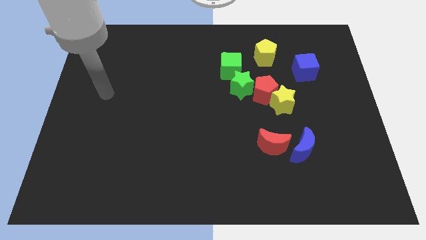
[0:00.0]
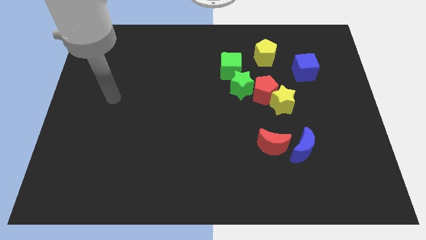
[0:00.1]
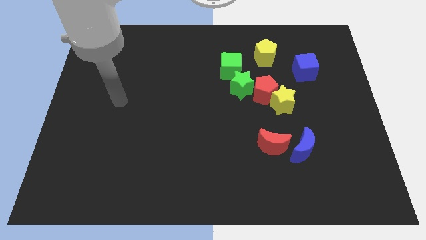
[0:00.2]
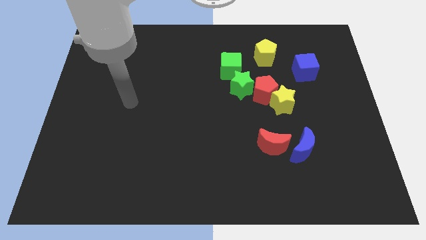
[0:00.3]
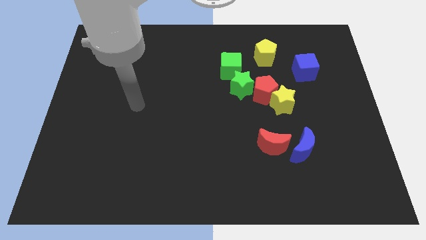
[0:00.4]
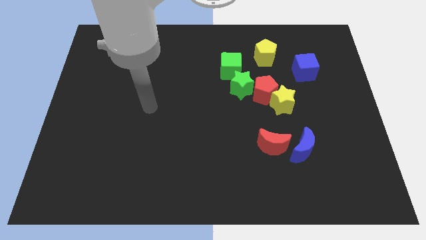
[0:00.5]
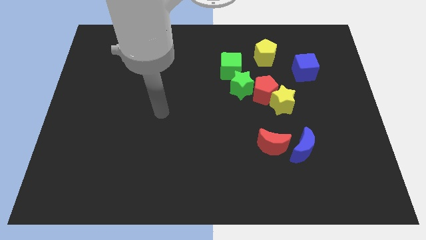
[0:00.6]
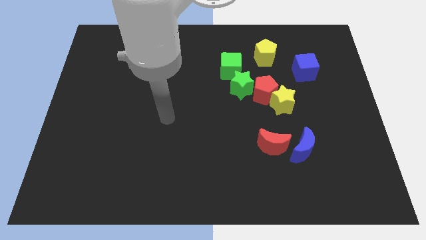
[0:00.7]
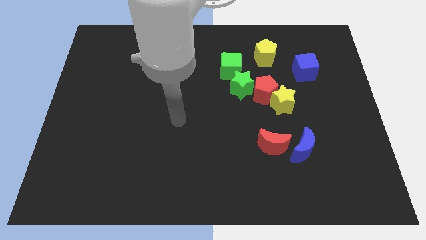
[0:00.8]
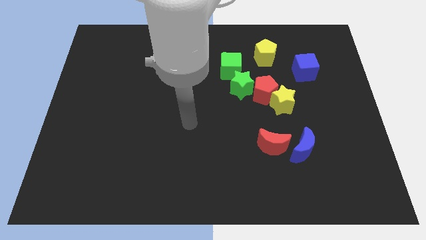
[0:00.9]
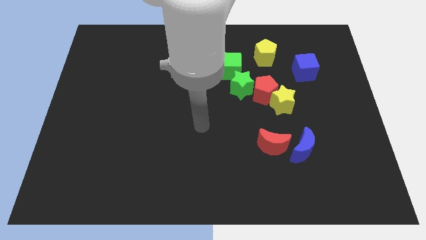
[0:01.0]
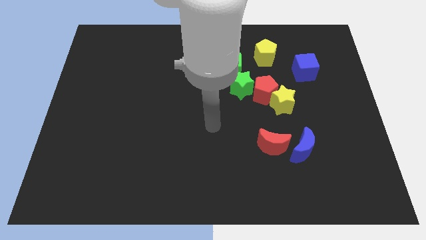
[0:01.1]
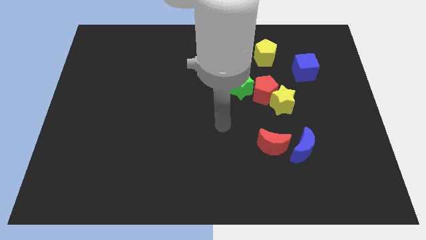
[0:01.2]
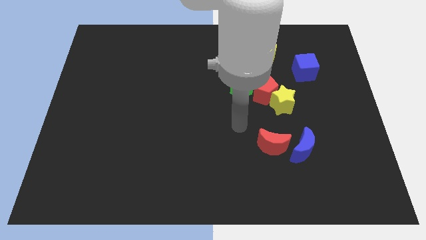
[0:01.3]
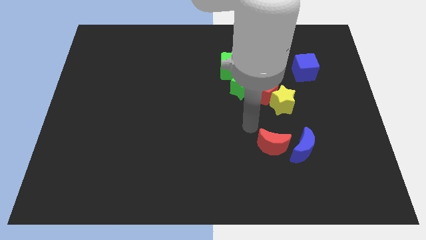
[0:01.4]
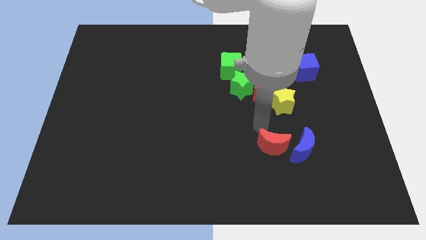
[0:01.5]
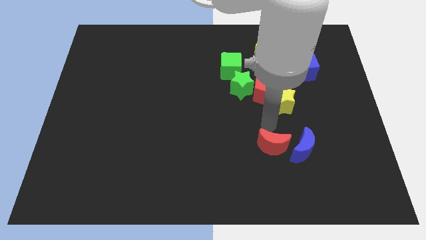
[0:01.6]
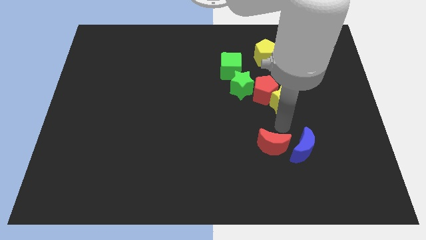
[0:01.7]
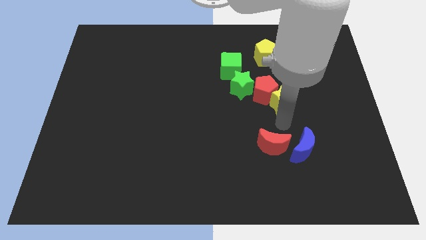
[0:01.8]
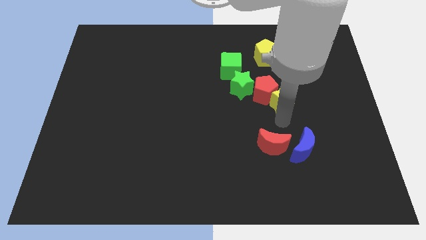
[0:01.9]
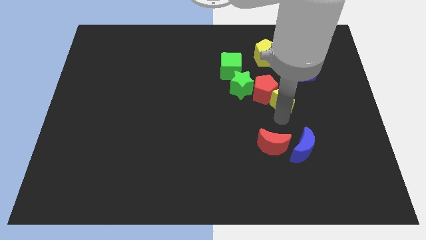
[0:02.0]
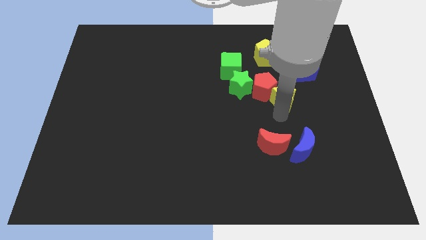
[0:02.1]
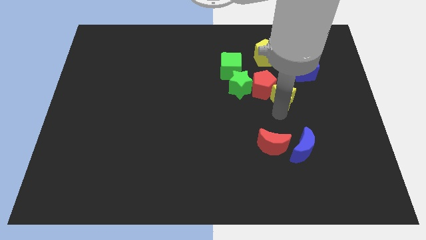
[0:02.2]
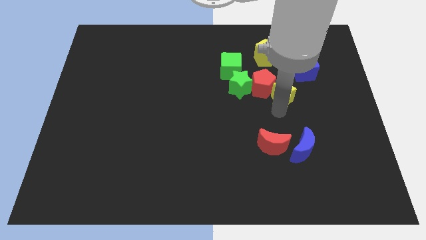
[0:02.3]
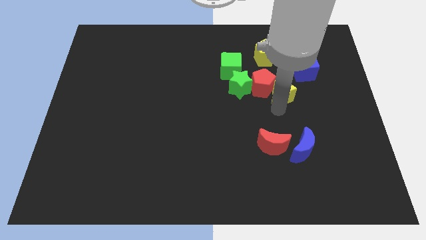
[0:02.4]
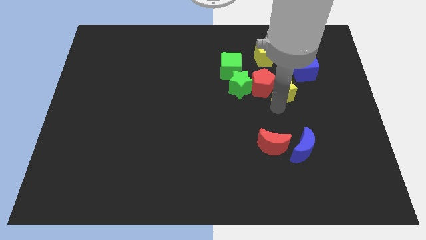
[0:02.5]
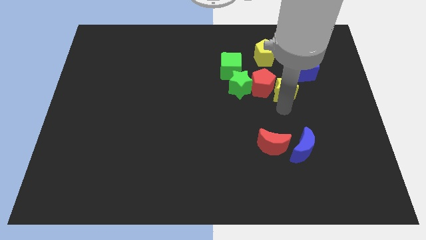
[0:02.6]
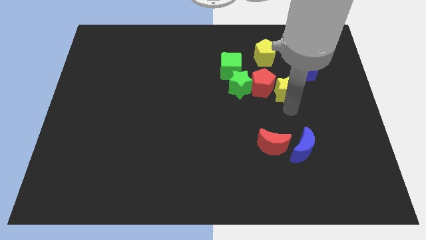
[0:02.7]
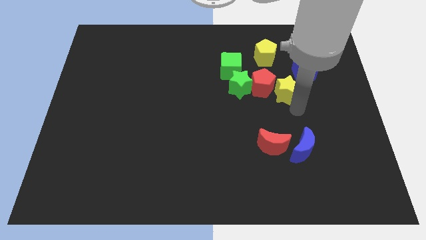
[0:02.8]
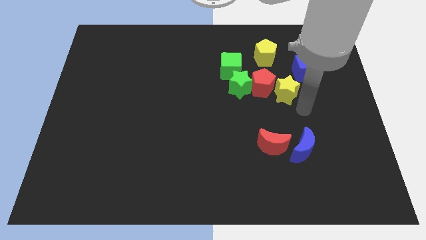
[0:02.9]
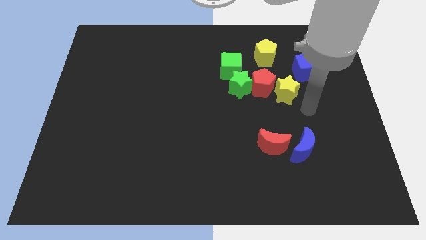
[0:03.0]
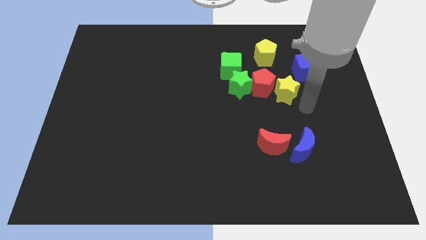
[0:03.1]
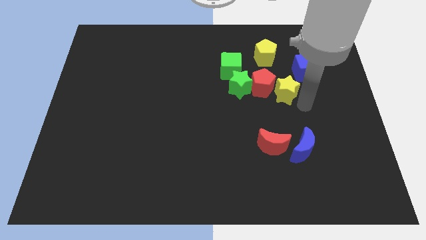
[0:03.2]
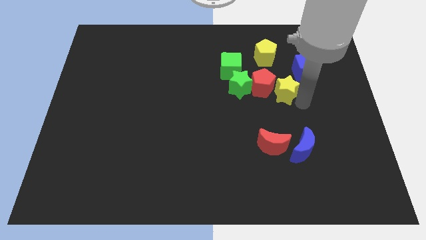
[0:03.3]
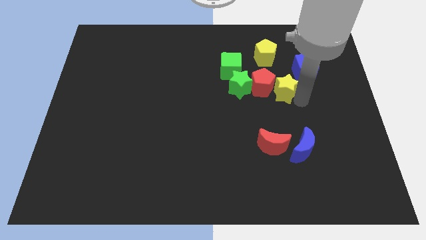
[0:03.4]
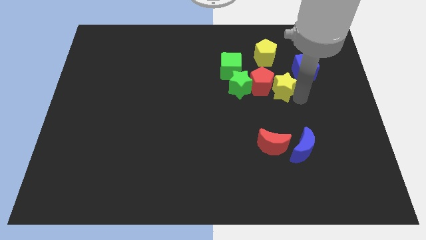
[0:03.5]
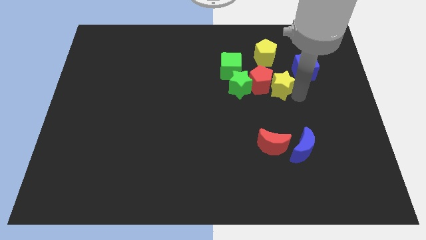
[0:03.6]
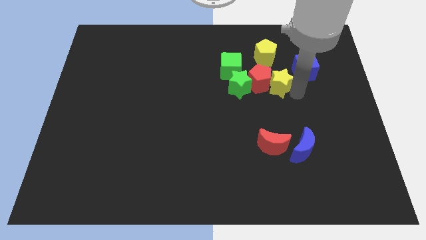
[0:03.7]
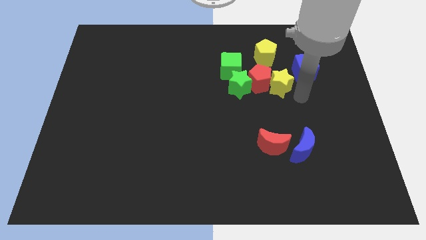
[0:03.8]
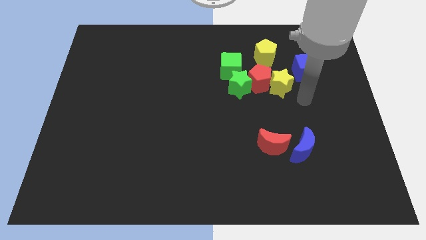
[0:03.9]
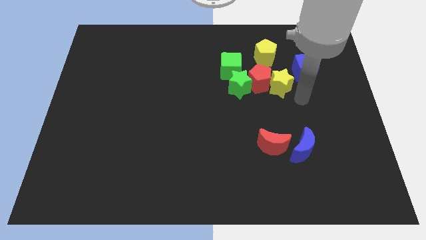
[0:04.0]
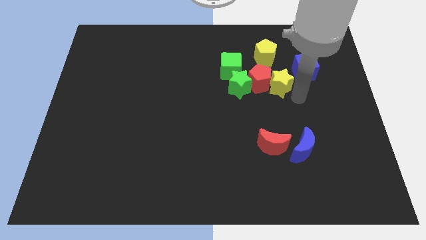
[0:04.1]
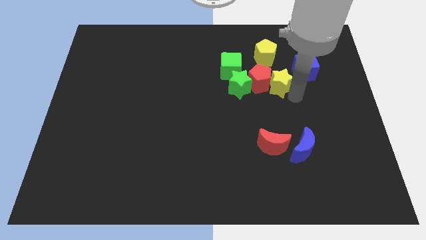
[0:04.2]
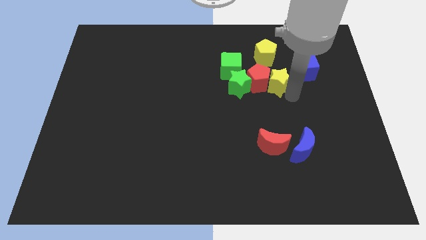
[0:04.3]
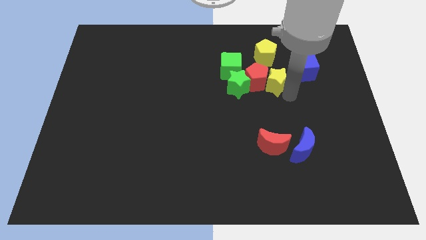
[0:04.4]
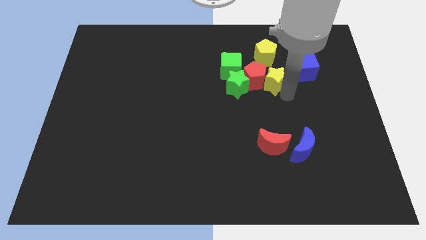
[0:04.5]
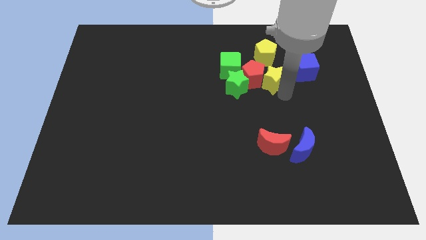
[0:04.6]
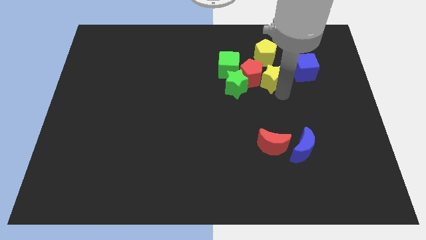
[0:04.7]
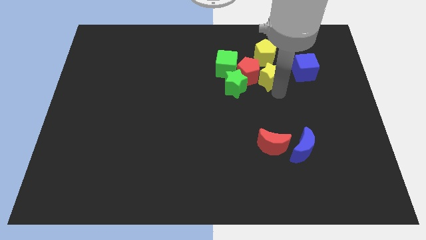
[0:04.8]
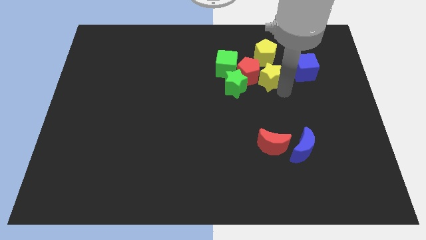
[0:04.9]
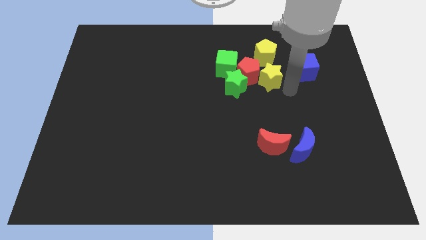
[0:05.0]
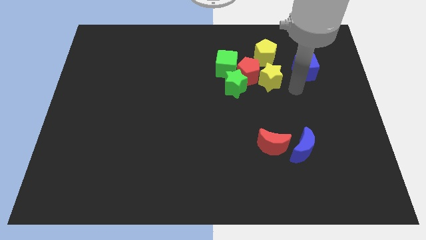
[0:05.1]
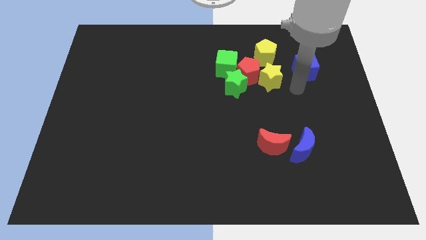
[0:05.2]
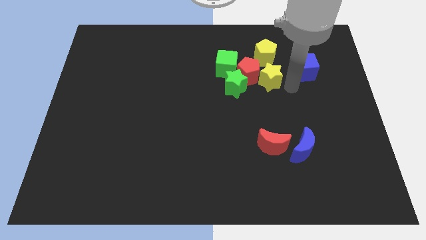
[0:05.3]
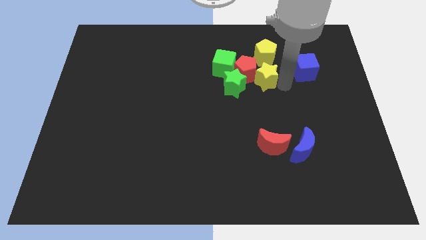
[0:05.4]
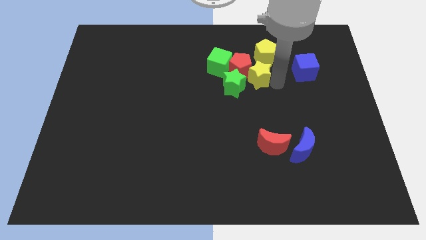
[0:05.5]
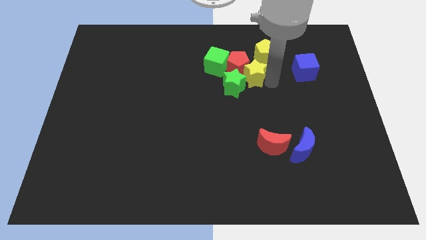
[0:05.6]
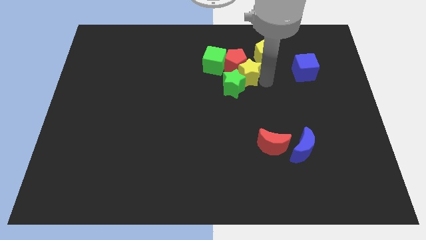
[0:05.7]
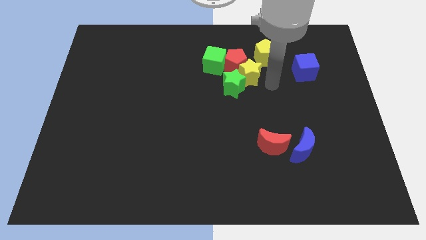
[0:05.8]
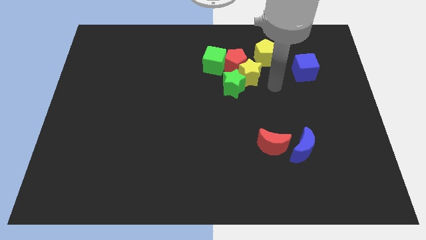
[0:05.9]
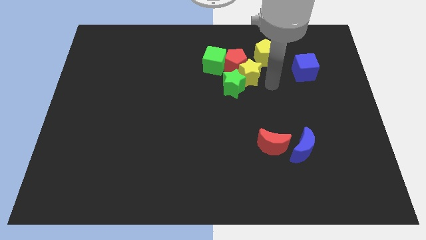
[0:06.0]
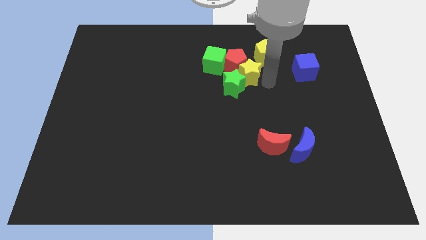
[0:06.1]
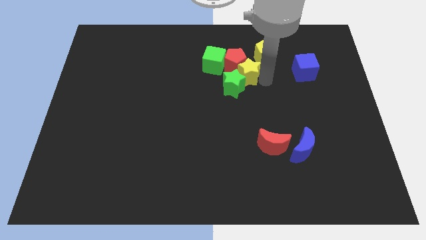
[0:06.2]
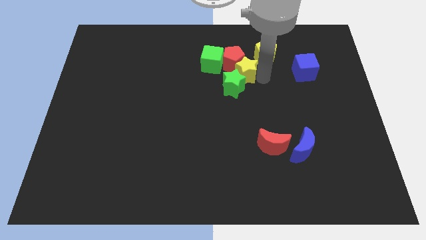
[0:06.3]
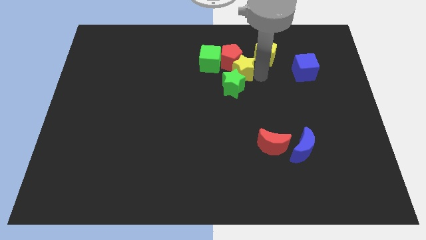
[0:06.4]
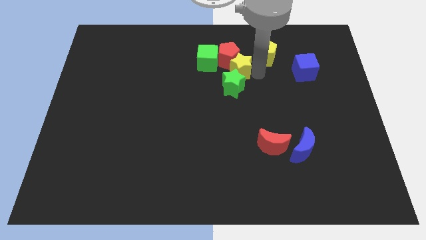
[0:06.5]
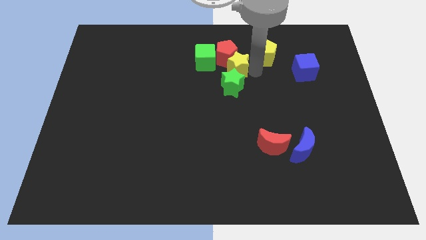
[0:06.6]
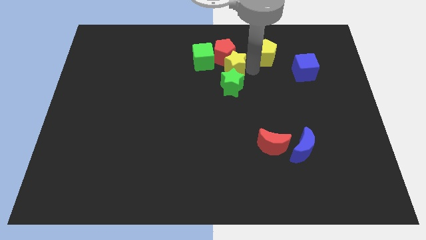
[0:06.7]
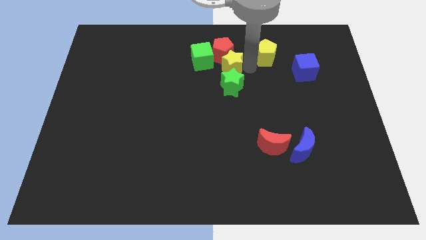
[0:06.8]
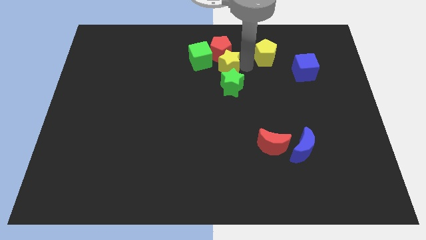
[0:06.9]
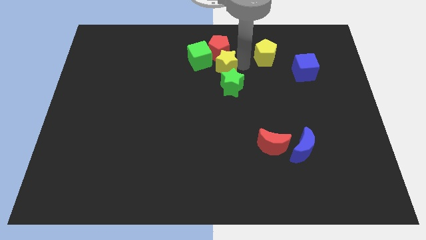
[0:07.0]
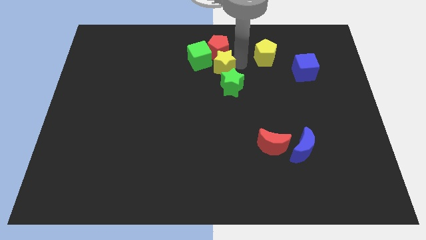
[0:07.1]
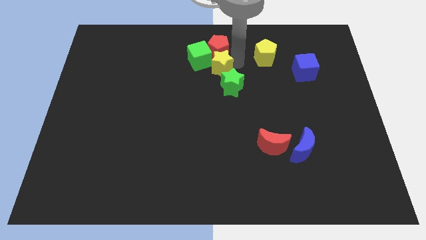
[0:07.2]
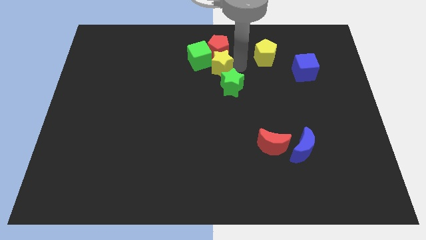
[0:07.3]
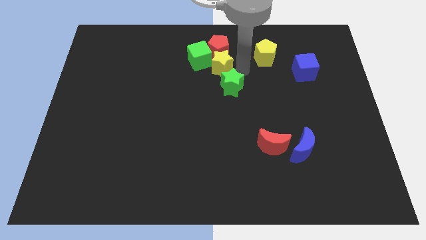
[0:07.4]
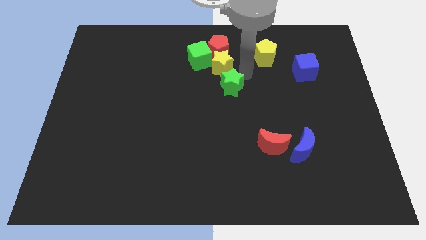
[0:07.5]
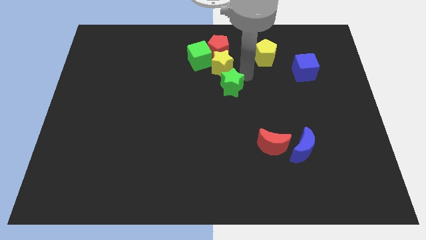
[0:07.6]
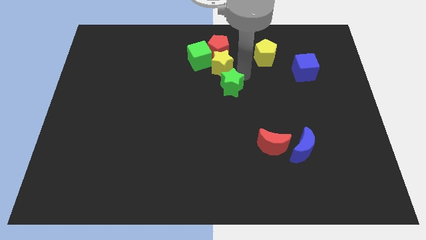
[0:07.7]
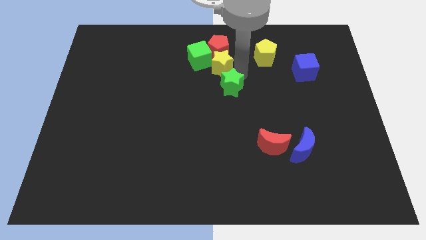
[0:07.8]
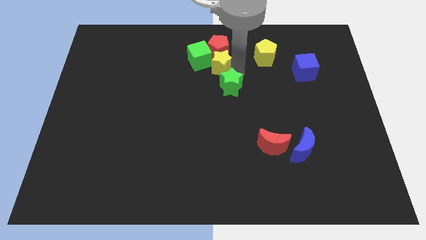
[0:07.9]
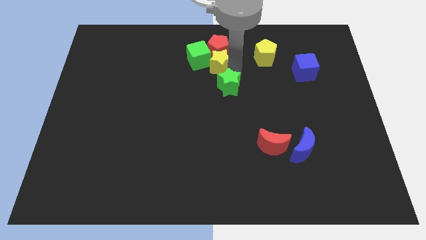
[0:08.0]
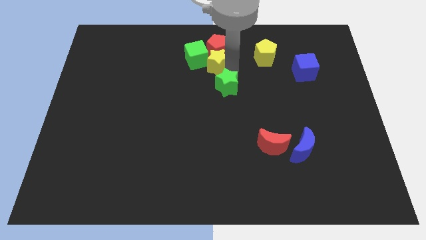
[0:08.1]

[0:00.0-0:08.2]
put the yellow star towards the green cube
